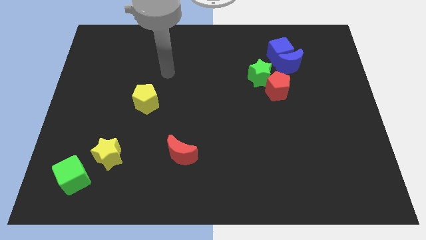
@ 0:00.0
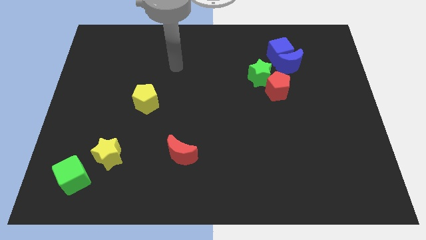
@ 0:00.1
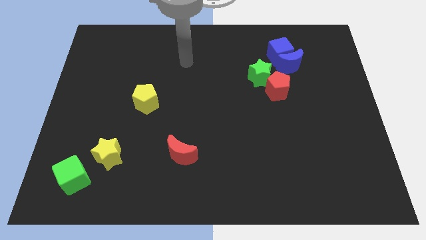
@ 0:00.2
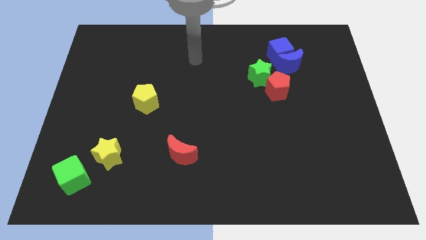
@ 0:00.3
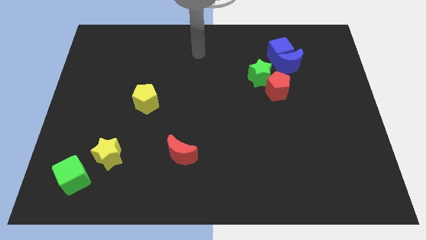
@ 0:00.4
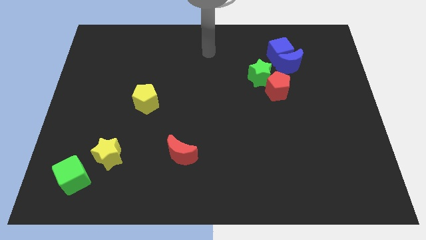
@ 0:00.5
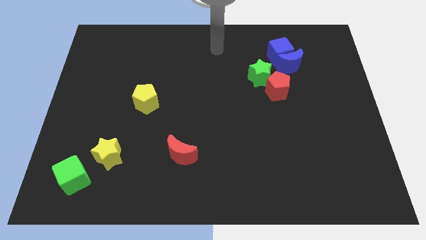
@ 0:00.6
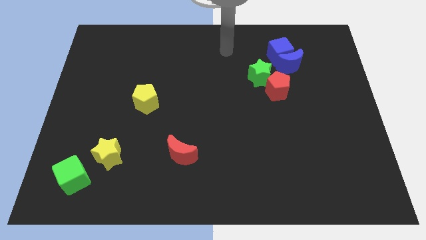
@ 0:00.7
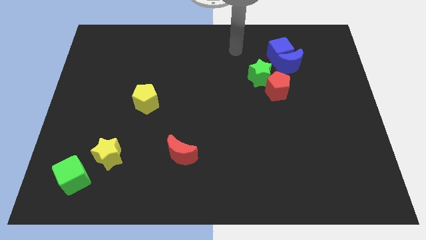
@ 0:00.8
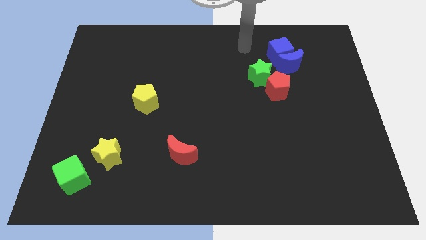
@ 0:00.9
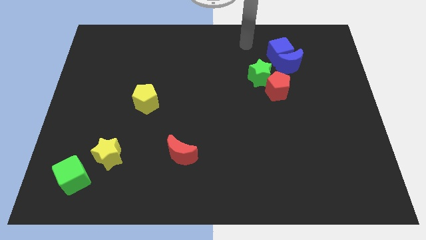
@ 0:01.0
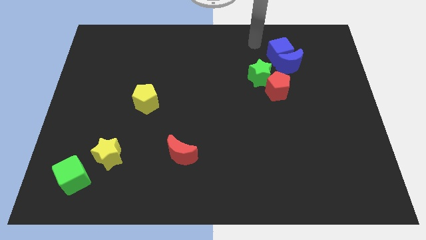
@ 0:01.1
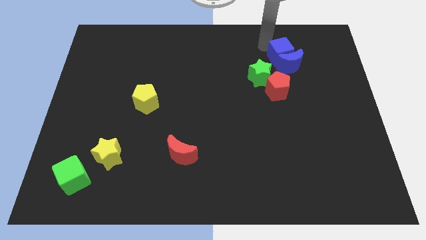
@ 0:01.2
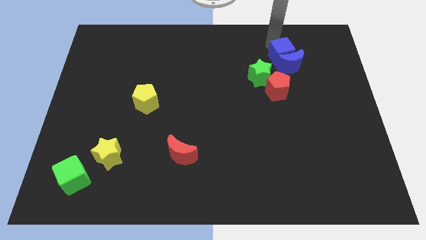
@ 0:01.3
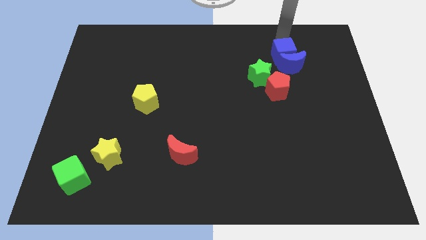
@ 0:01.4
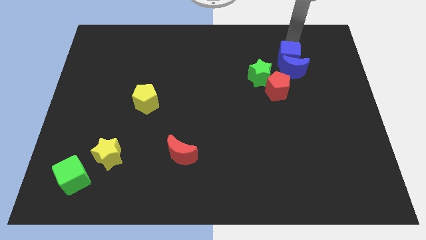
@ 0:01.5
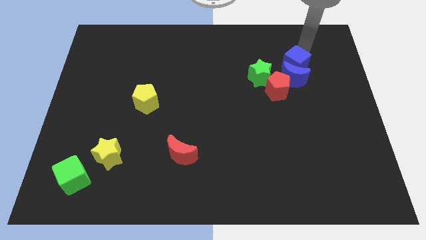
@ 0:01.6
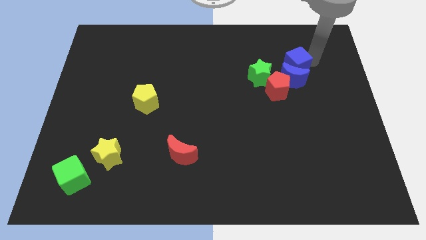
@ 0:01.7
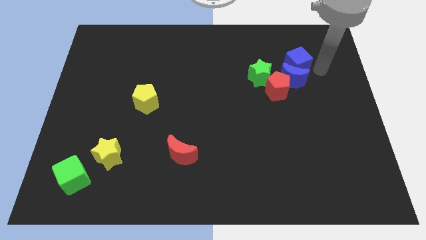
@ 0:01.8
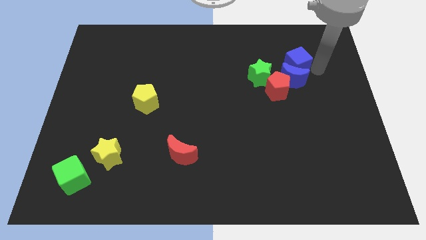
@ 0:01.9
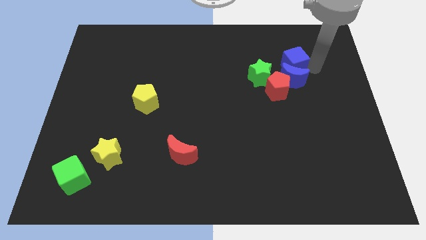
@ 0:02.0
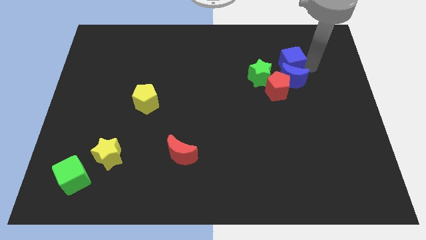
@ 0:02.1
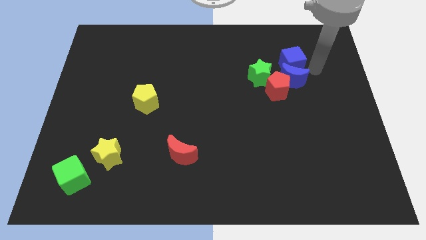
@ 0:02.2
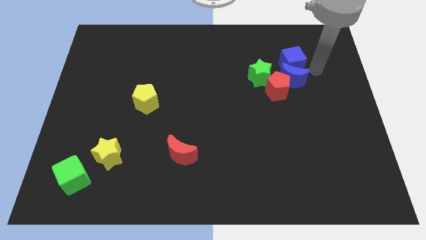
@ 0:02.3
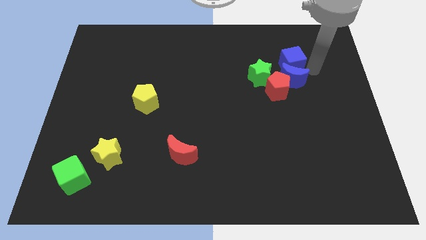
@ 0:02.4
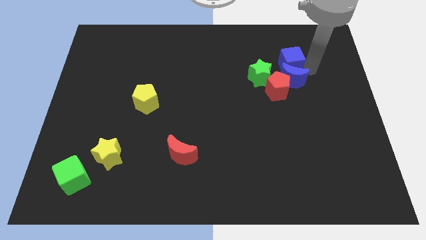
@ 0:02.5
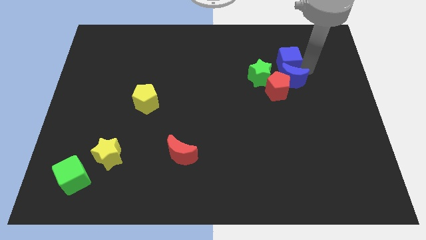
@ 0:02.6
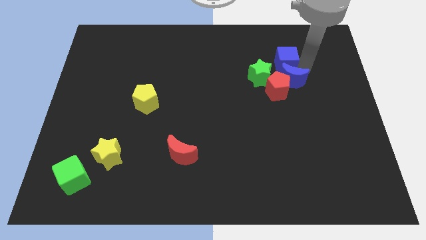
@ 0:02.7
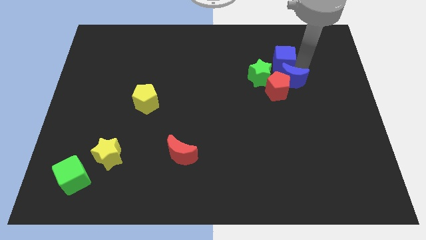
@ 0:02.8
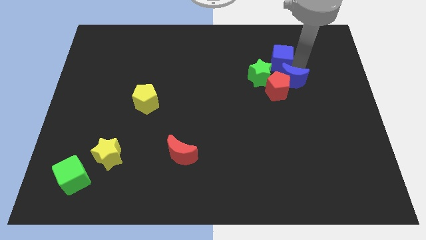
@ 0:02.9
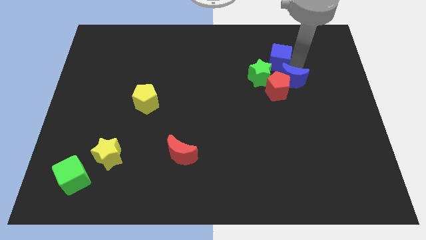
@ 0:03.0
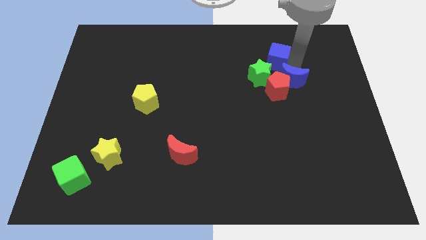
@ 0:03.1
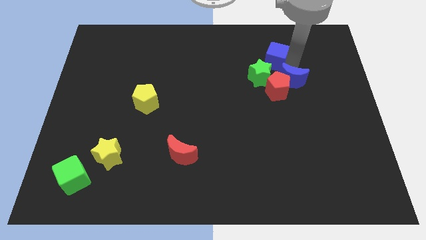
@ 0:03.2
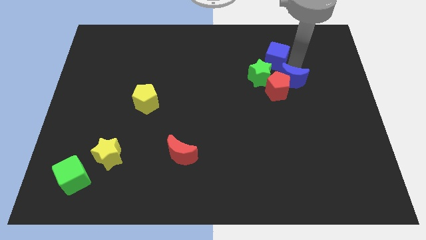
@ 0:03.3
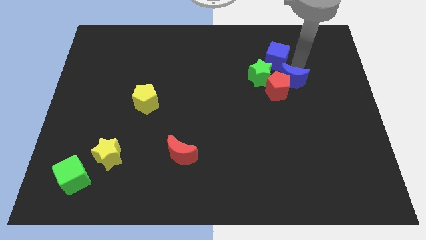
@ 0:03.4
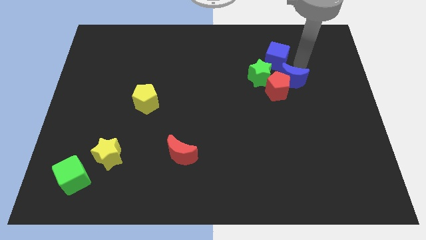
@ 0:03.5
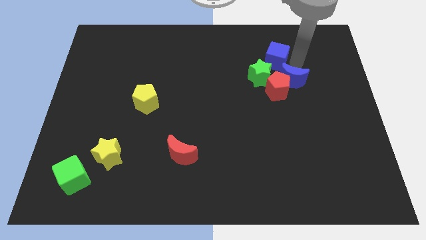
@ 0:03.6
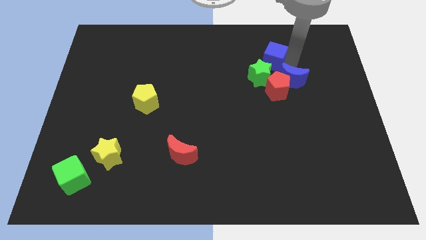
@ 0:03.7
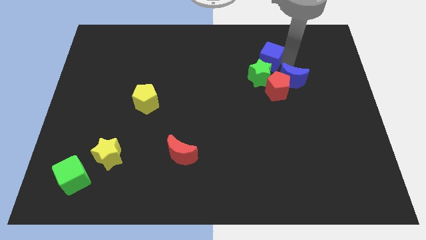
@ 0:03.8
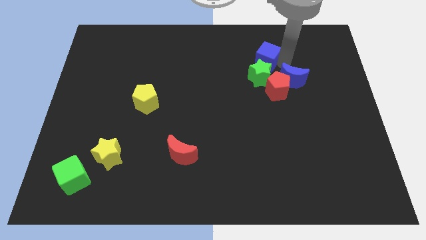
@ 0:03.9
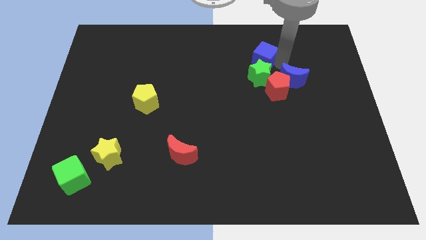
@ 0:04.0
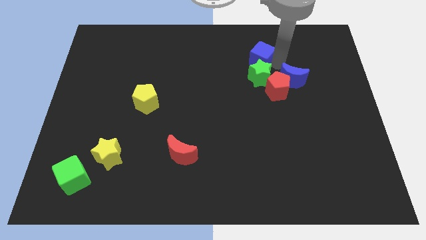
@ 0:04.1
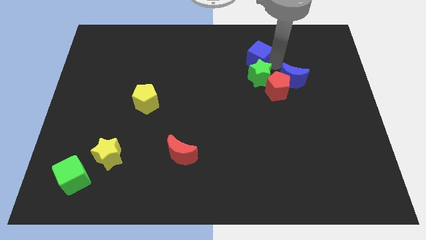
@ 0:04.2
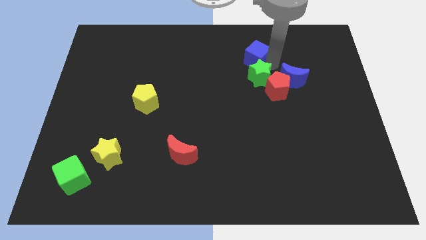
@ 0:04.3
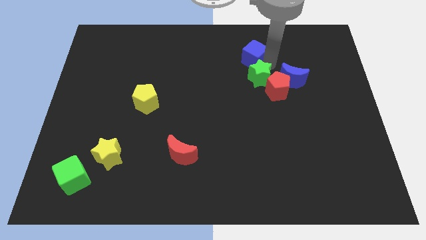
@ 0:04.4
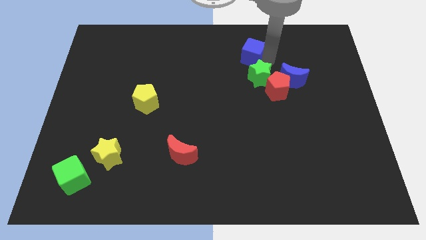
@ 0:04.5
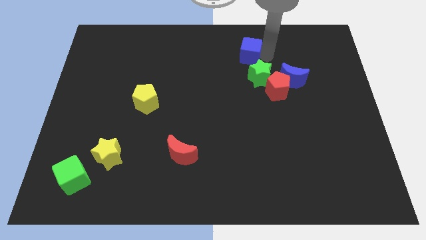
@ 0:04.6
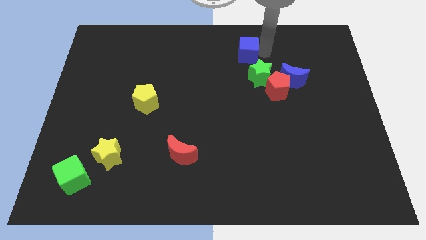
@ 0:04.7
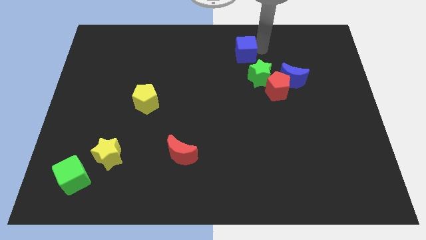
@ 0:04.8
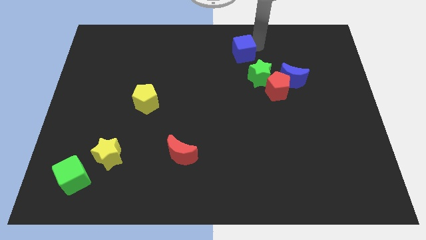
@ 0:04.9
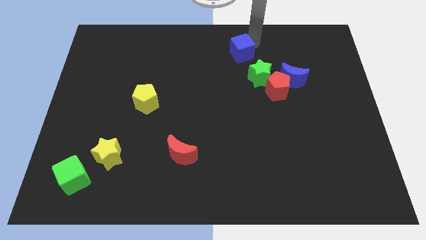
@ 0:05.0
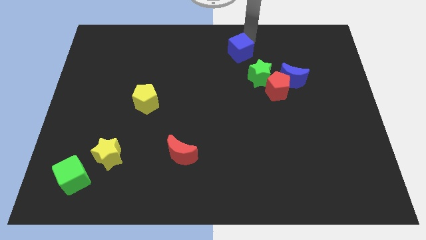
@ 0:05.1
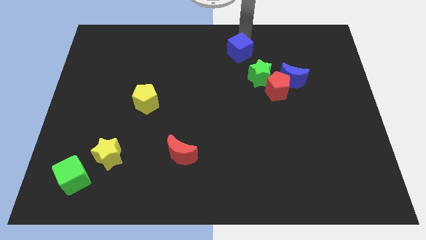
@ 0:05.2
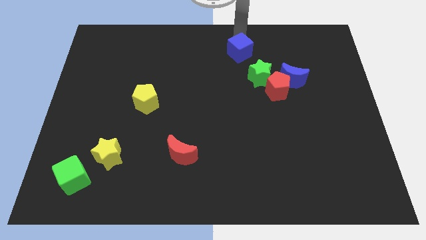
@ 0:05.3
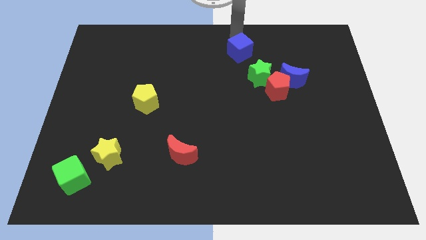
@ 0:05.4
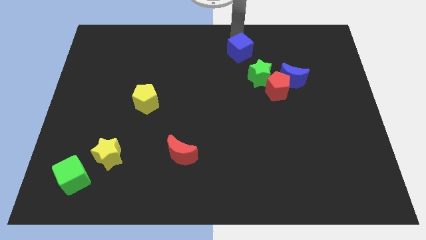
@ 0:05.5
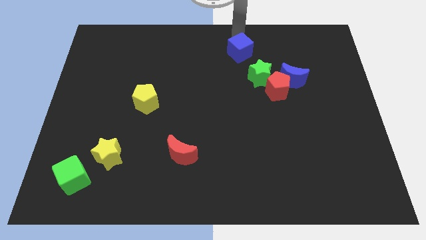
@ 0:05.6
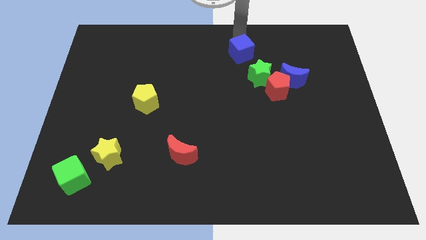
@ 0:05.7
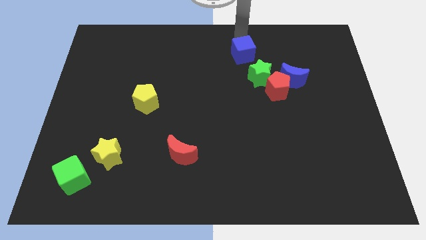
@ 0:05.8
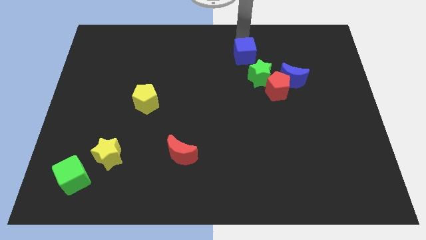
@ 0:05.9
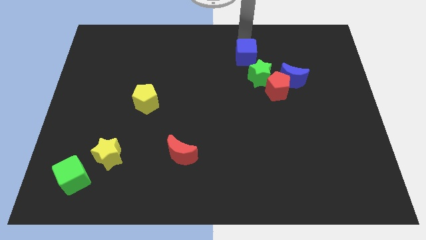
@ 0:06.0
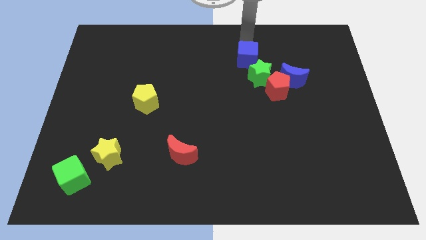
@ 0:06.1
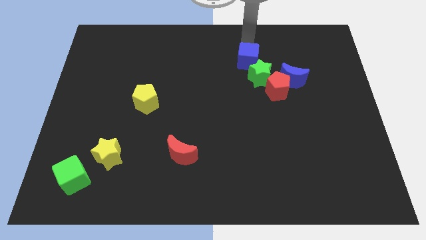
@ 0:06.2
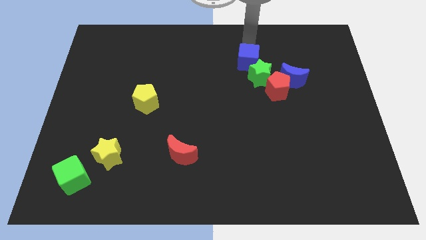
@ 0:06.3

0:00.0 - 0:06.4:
slightly move the blue cube diagonally down and to the left

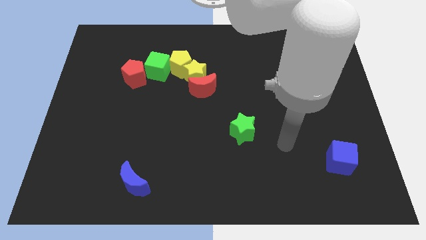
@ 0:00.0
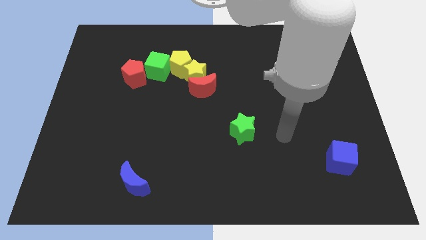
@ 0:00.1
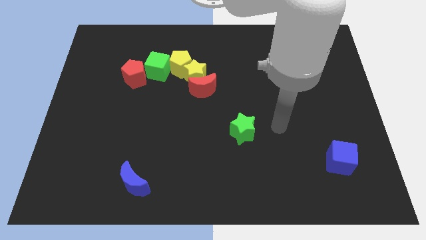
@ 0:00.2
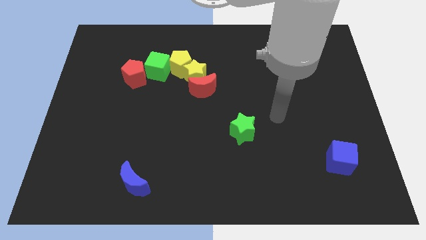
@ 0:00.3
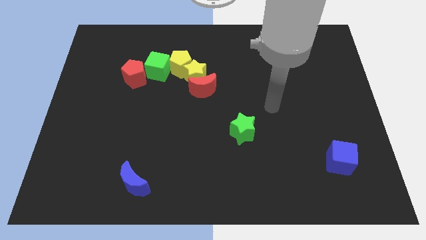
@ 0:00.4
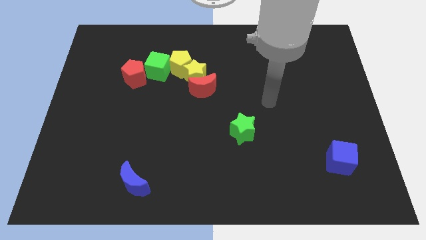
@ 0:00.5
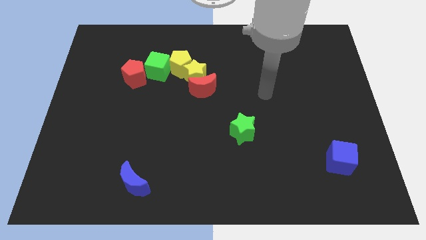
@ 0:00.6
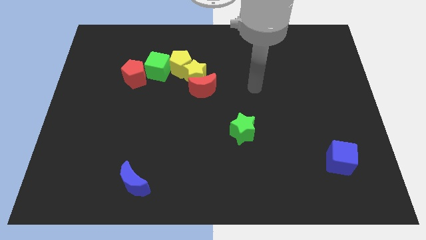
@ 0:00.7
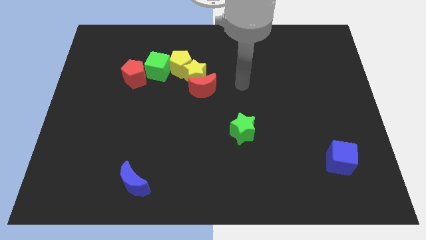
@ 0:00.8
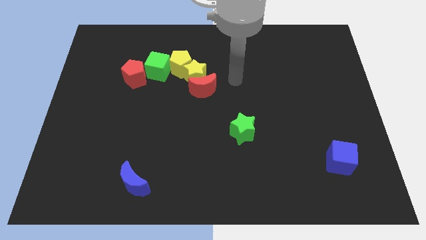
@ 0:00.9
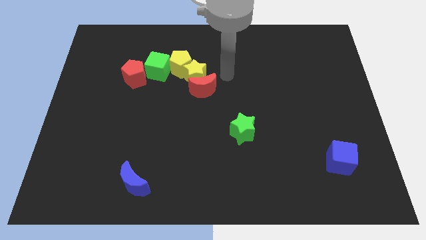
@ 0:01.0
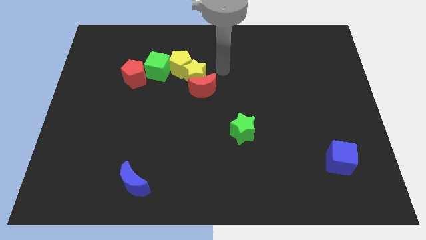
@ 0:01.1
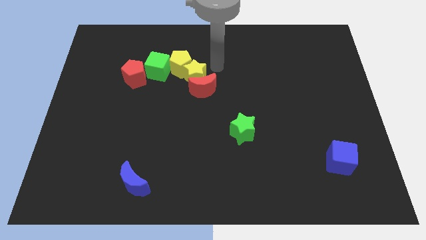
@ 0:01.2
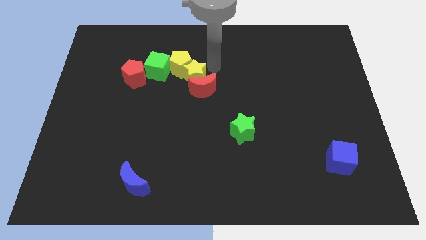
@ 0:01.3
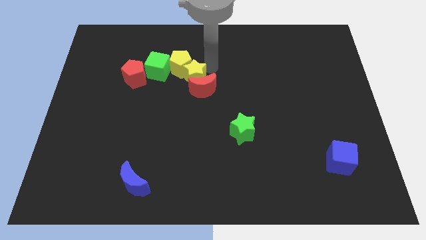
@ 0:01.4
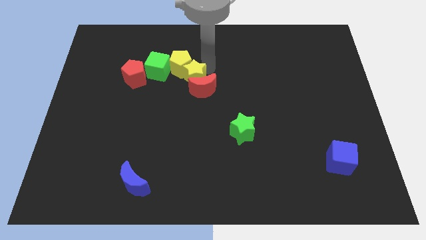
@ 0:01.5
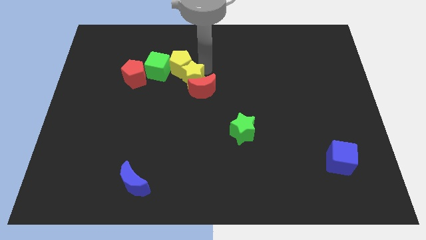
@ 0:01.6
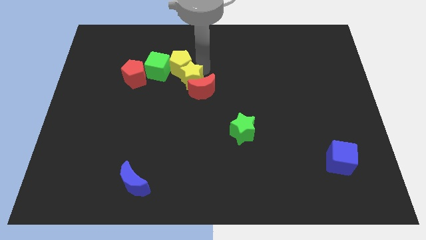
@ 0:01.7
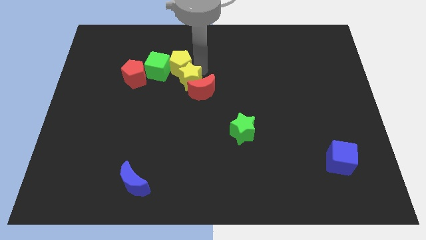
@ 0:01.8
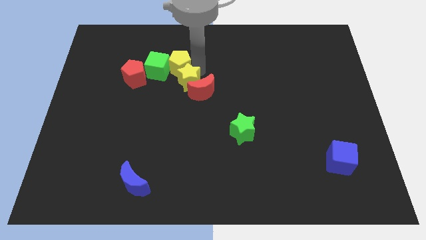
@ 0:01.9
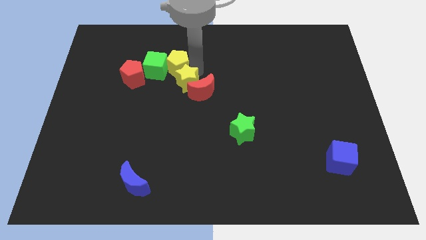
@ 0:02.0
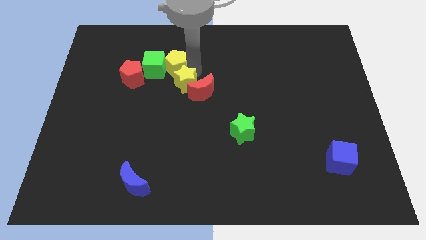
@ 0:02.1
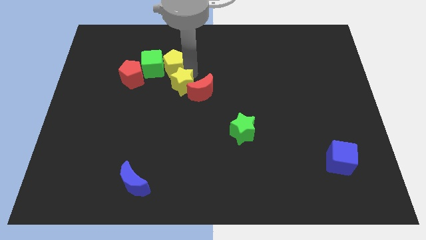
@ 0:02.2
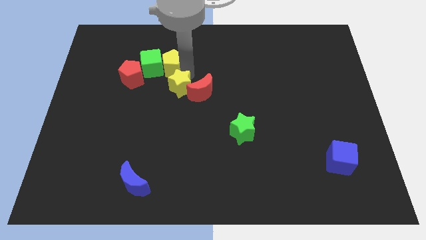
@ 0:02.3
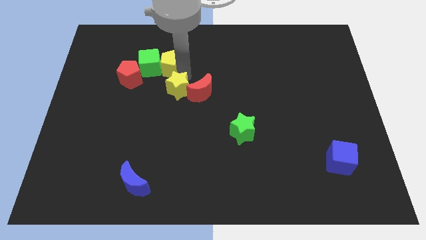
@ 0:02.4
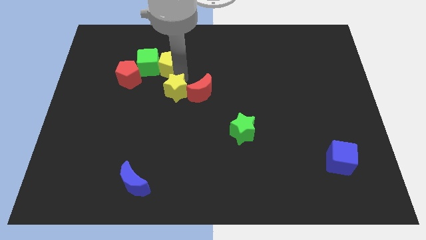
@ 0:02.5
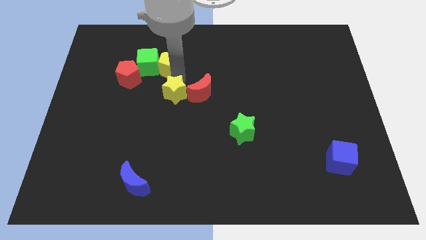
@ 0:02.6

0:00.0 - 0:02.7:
push the yellow star slightly down and to the left
